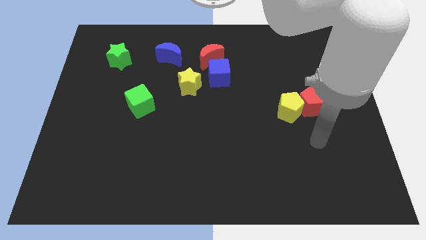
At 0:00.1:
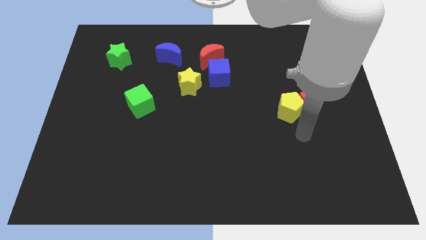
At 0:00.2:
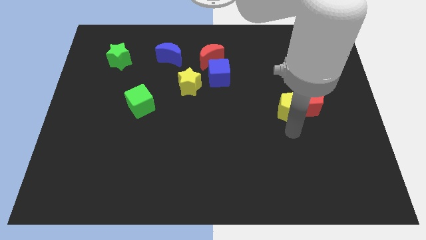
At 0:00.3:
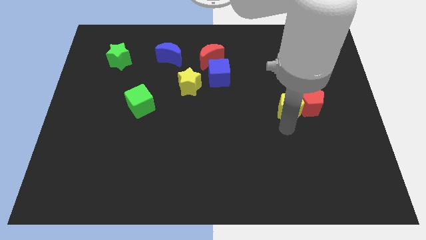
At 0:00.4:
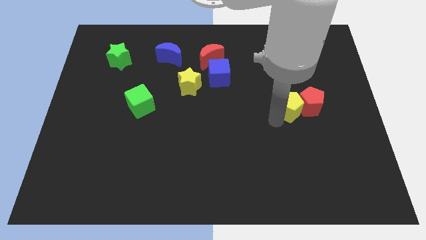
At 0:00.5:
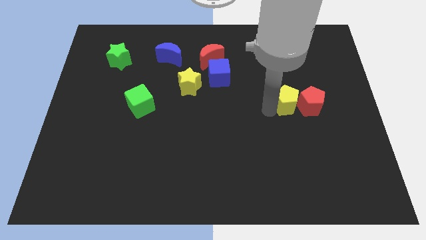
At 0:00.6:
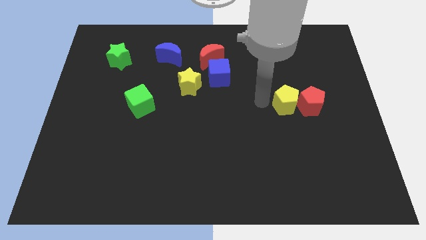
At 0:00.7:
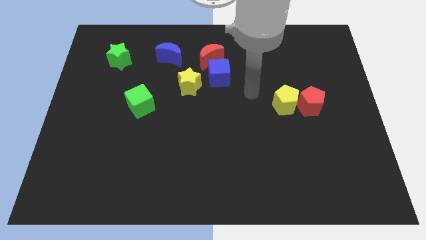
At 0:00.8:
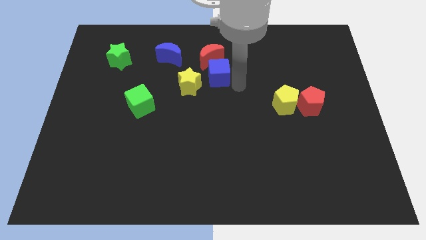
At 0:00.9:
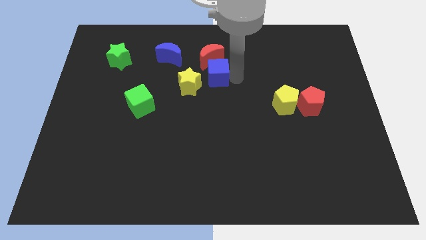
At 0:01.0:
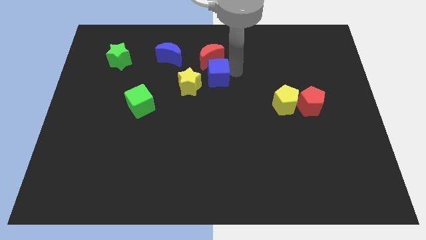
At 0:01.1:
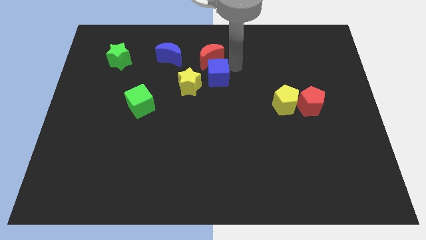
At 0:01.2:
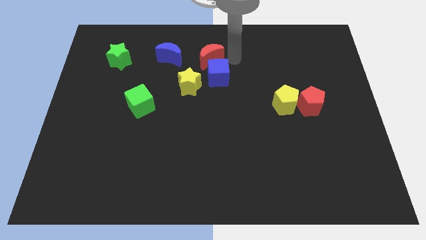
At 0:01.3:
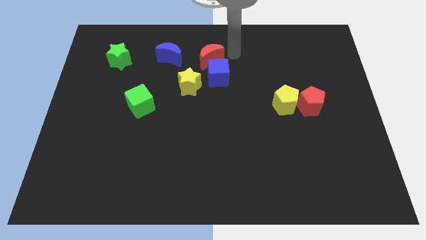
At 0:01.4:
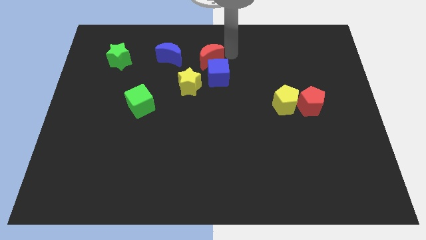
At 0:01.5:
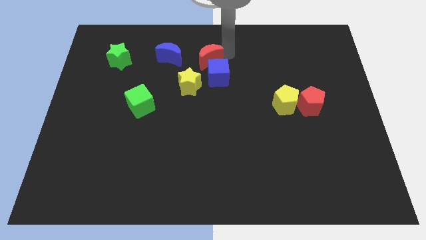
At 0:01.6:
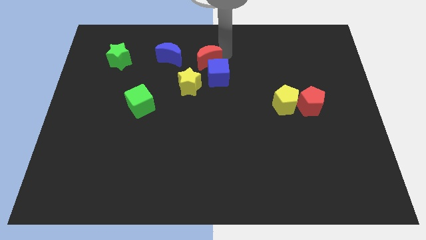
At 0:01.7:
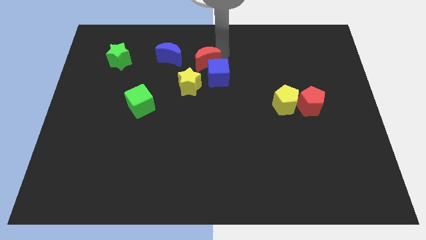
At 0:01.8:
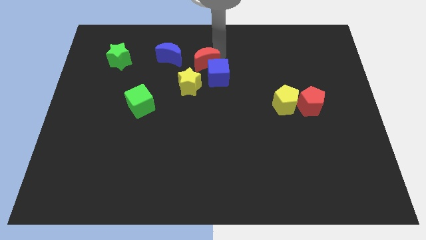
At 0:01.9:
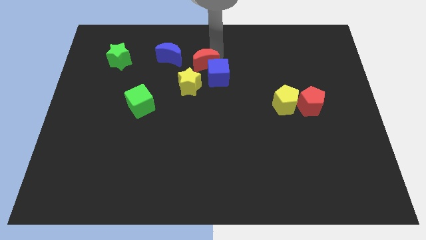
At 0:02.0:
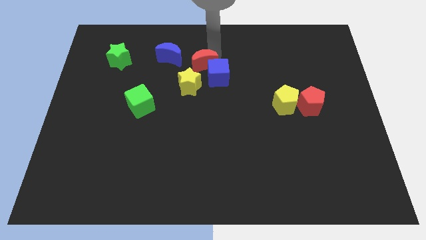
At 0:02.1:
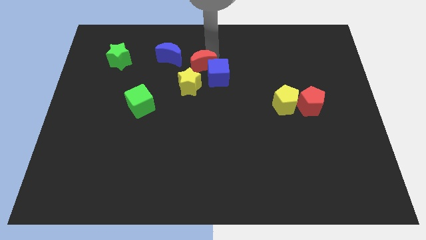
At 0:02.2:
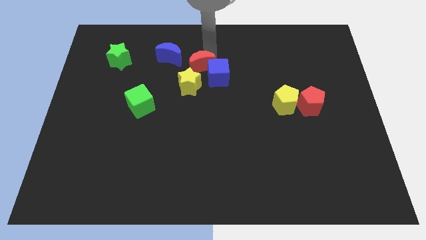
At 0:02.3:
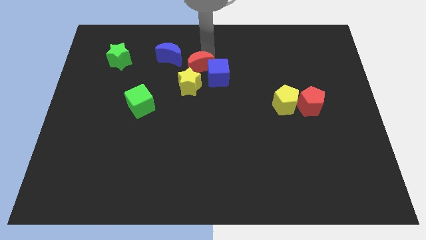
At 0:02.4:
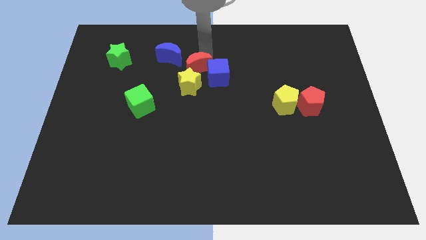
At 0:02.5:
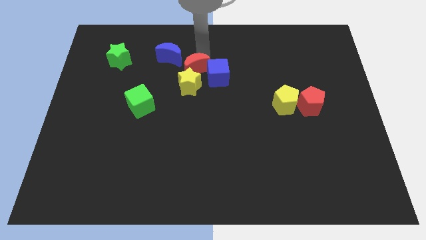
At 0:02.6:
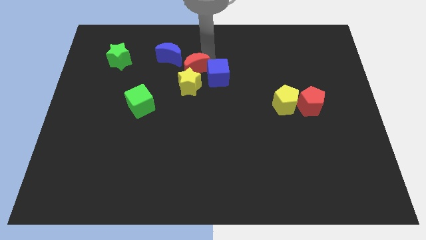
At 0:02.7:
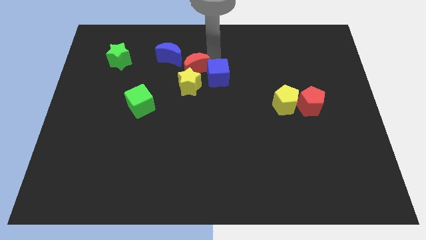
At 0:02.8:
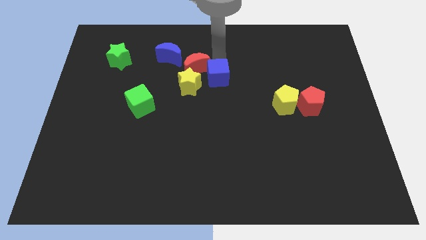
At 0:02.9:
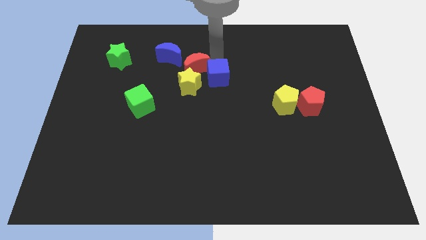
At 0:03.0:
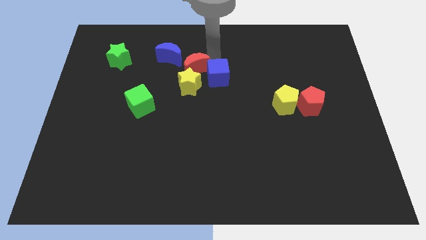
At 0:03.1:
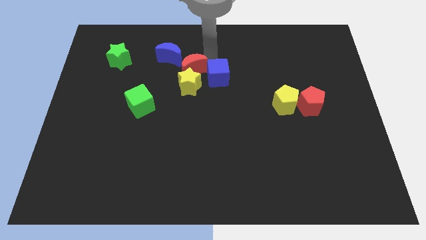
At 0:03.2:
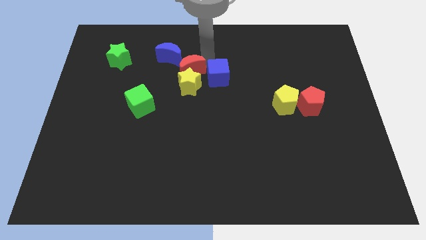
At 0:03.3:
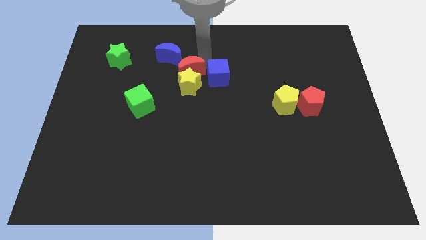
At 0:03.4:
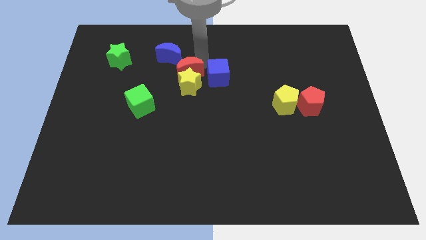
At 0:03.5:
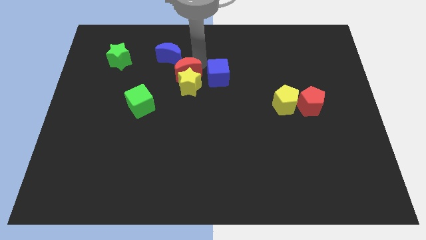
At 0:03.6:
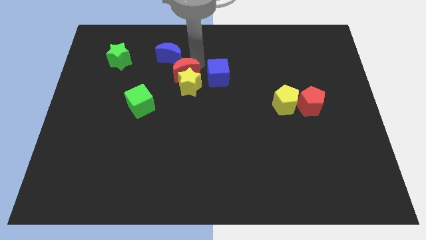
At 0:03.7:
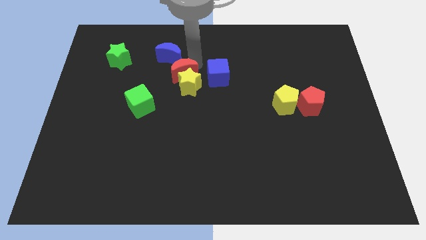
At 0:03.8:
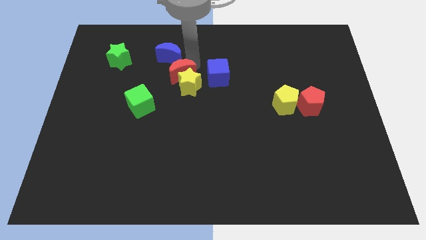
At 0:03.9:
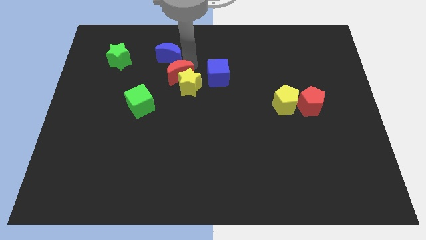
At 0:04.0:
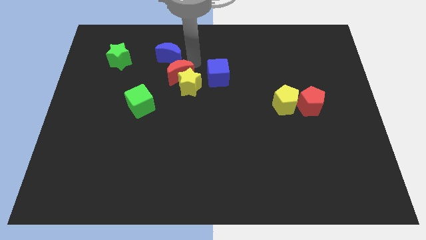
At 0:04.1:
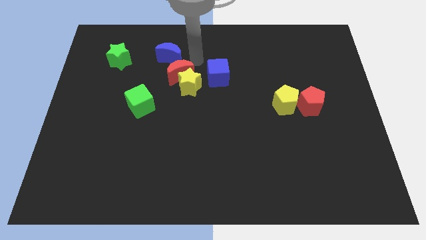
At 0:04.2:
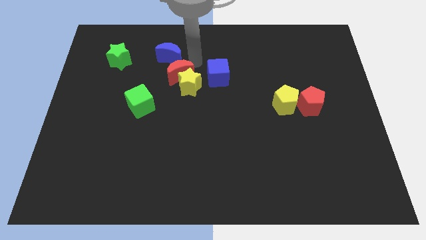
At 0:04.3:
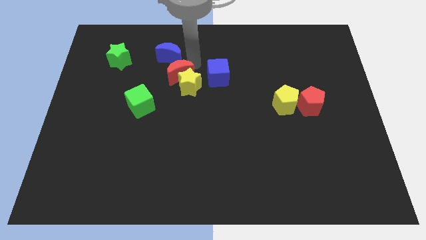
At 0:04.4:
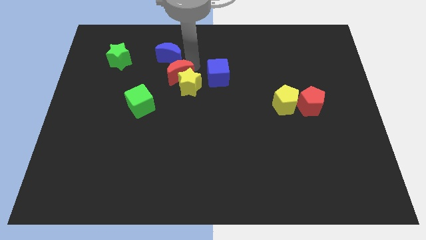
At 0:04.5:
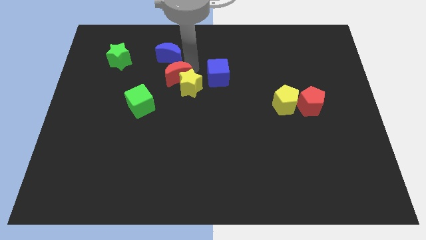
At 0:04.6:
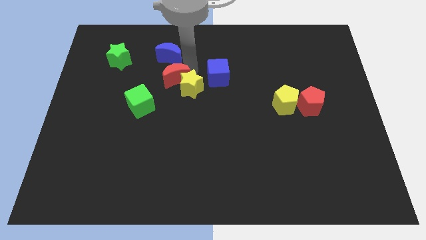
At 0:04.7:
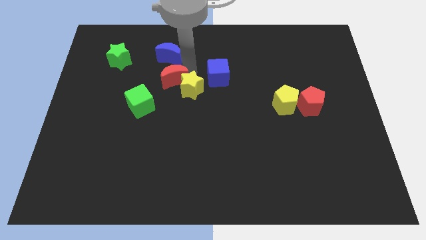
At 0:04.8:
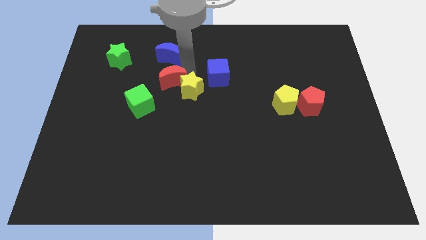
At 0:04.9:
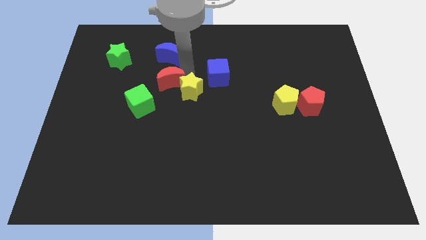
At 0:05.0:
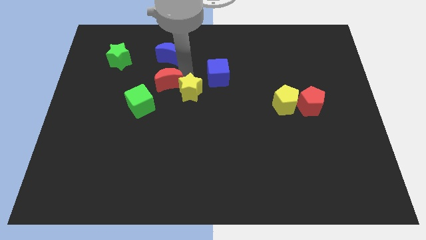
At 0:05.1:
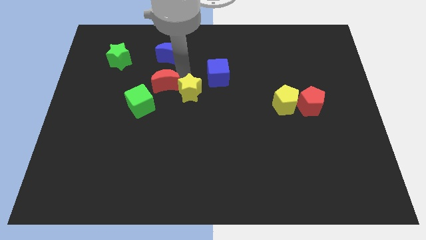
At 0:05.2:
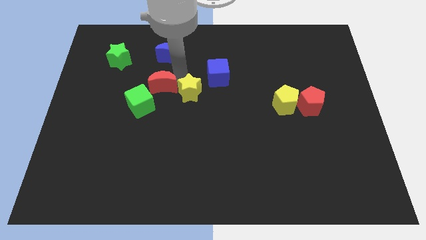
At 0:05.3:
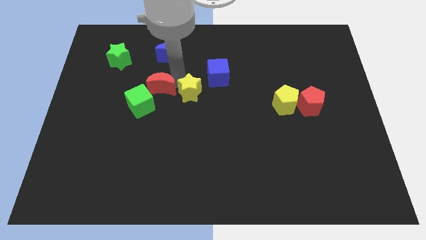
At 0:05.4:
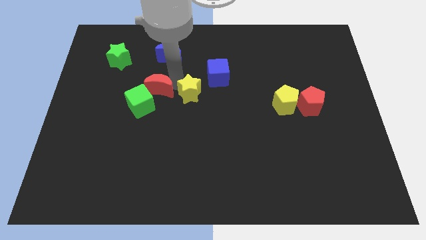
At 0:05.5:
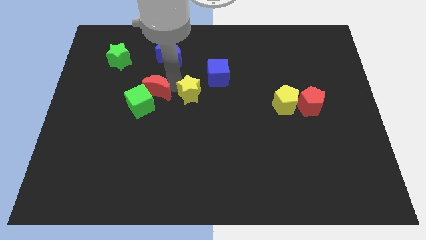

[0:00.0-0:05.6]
put the red moon close to the green cube

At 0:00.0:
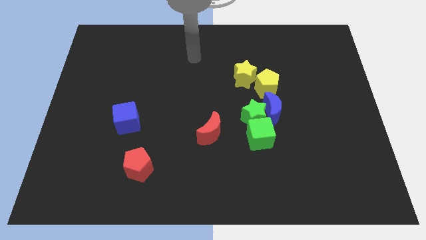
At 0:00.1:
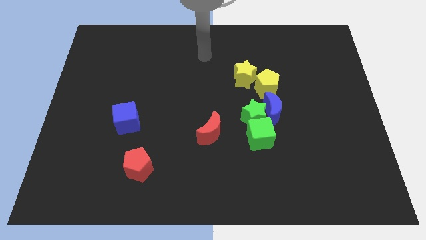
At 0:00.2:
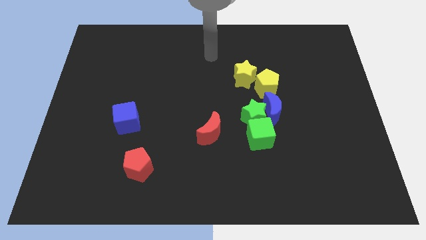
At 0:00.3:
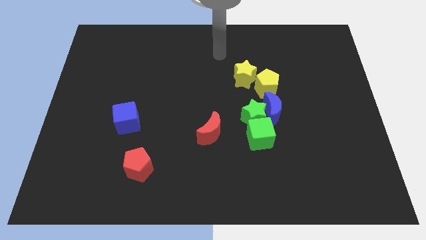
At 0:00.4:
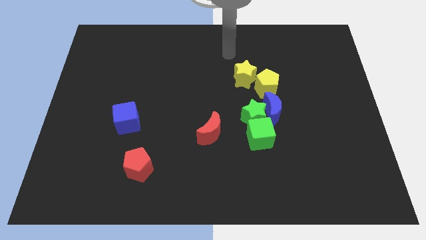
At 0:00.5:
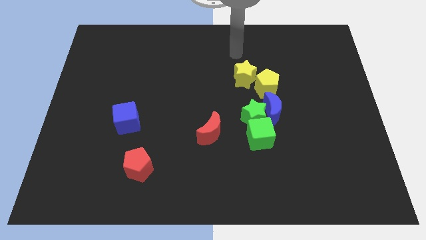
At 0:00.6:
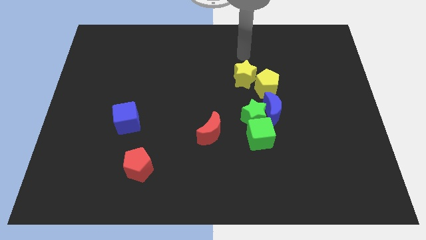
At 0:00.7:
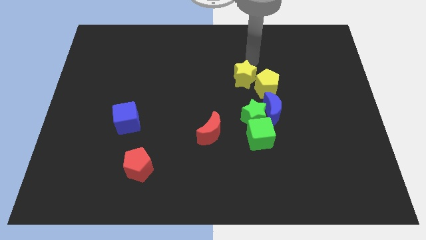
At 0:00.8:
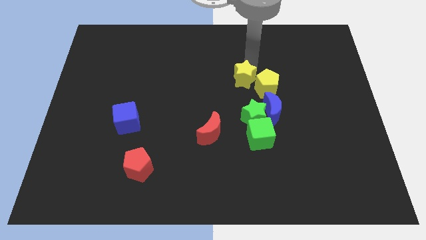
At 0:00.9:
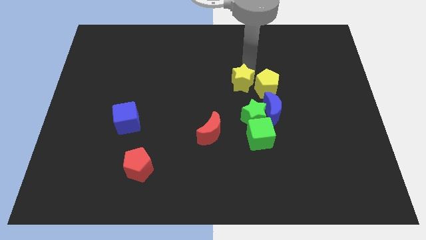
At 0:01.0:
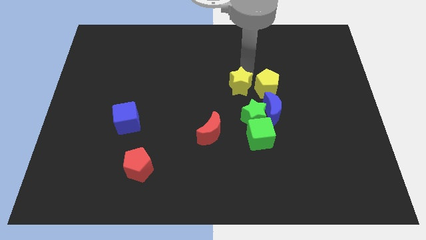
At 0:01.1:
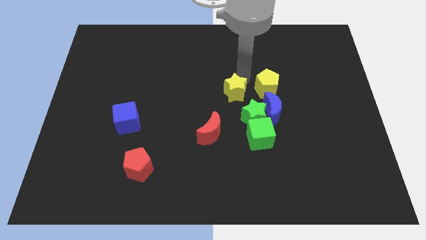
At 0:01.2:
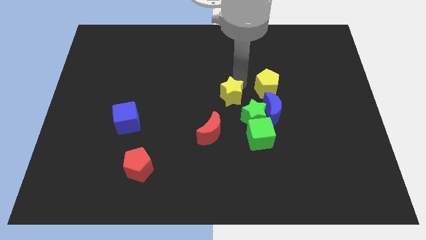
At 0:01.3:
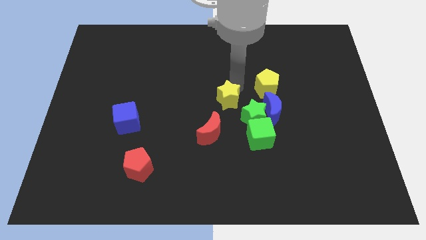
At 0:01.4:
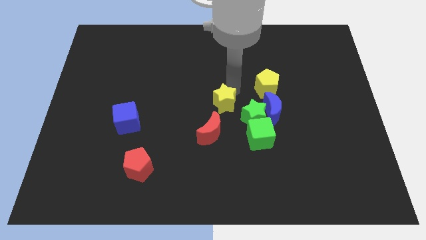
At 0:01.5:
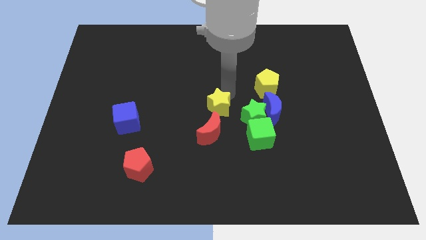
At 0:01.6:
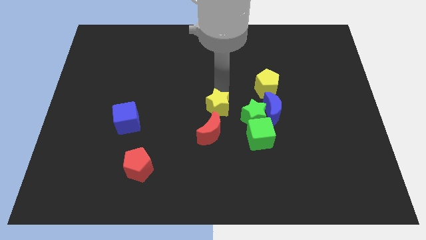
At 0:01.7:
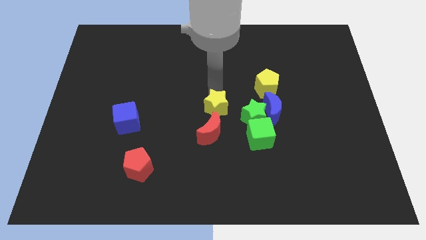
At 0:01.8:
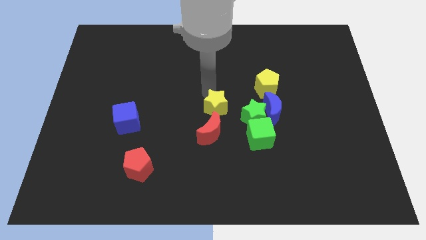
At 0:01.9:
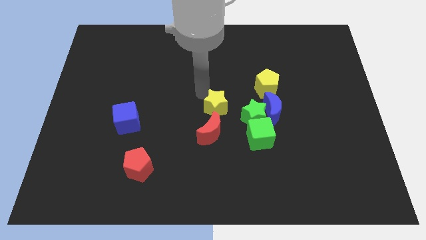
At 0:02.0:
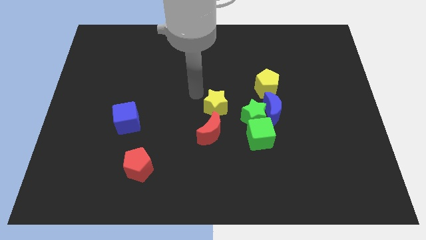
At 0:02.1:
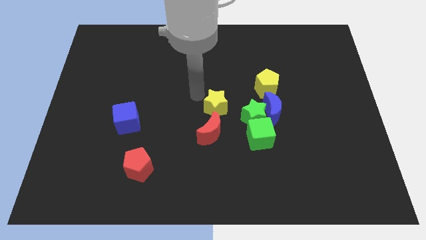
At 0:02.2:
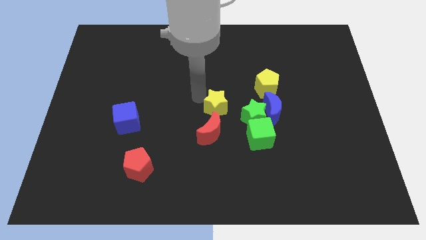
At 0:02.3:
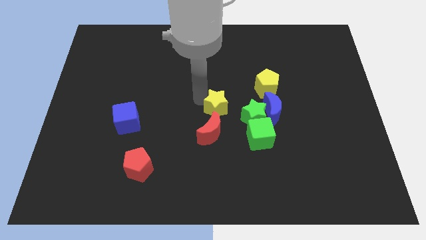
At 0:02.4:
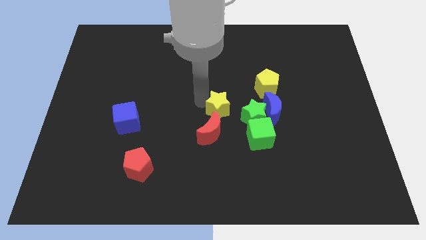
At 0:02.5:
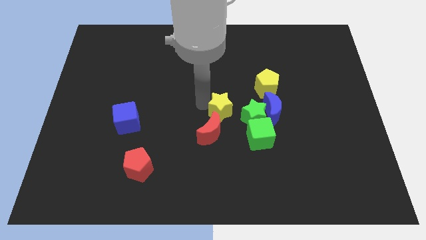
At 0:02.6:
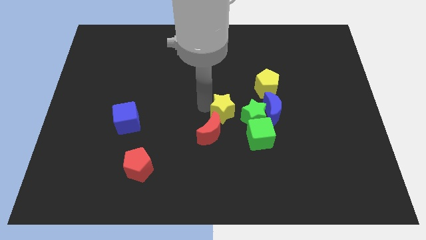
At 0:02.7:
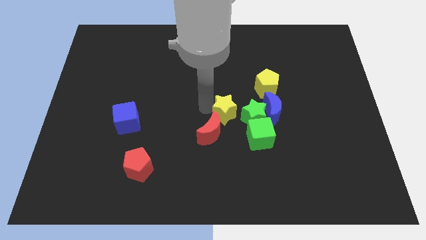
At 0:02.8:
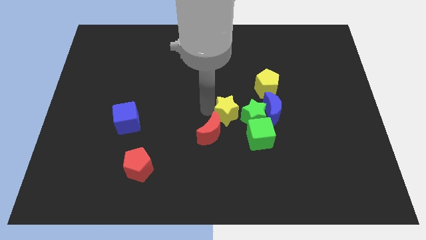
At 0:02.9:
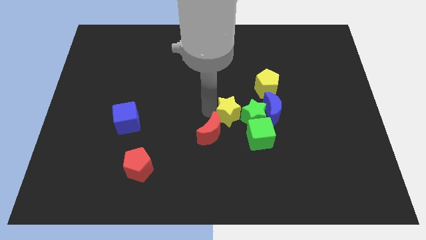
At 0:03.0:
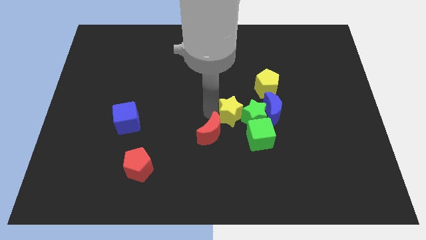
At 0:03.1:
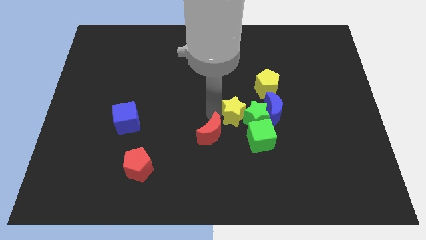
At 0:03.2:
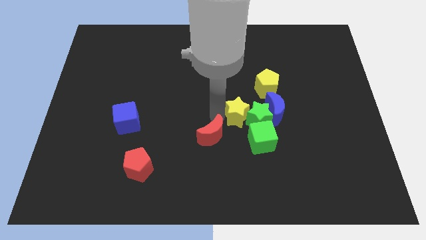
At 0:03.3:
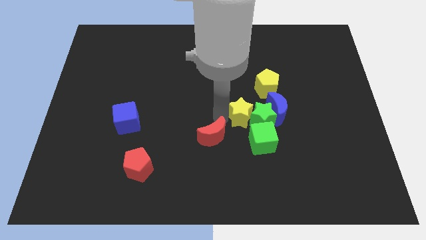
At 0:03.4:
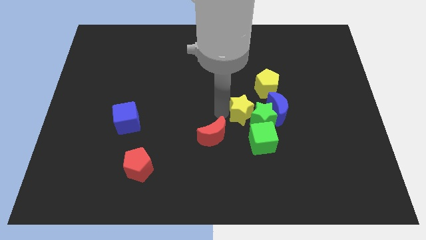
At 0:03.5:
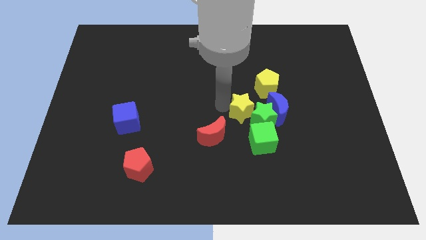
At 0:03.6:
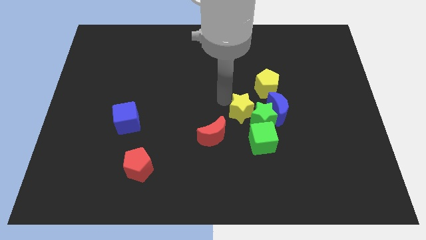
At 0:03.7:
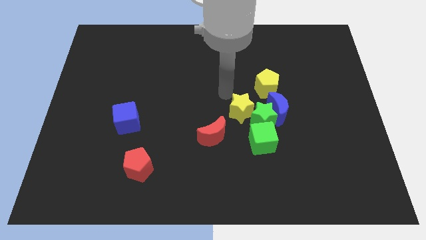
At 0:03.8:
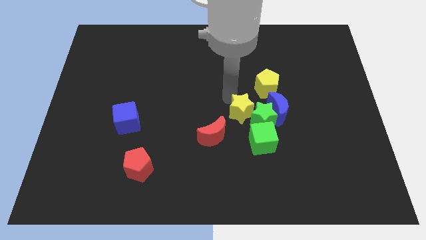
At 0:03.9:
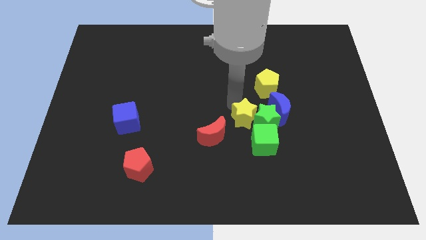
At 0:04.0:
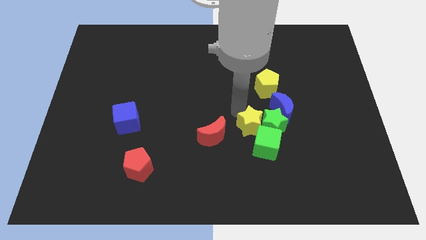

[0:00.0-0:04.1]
slide the yellow star towards the green cube
